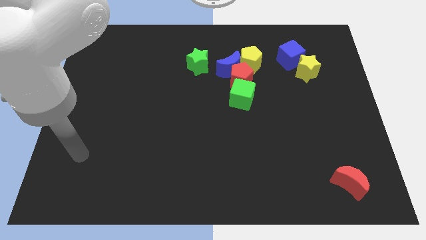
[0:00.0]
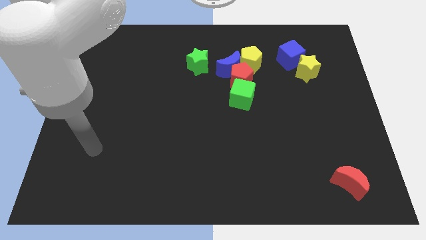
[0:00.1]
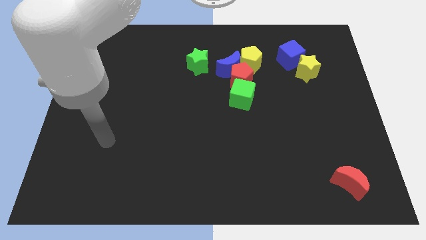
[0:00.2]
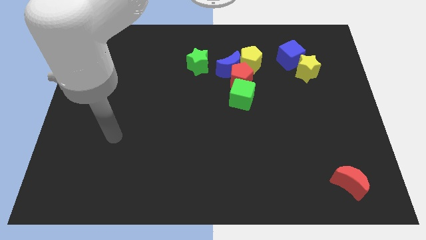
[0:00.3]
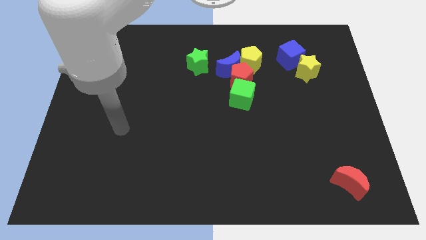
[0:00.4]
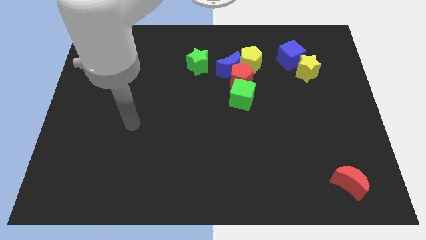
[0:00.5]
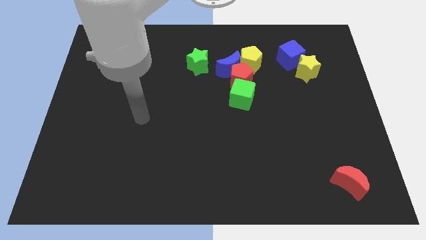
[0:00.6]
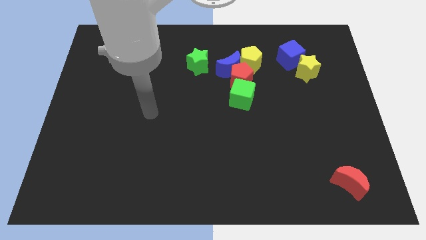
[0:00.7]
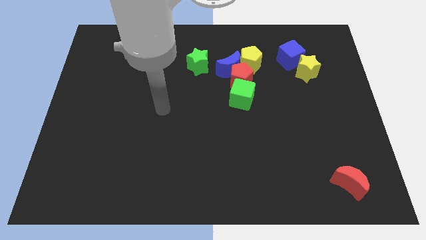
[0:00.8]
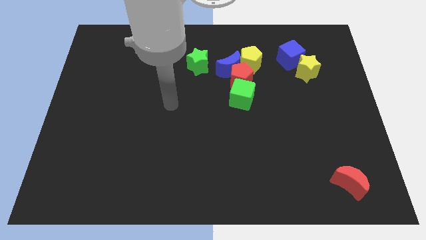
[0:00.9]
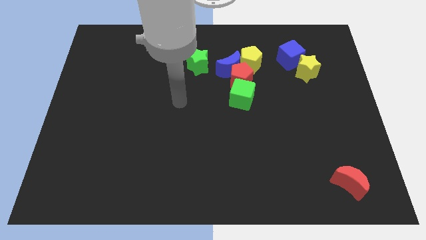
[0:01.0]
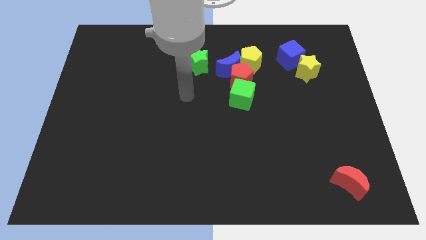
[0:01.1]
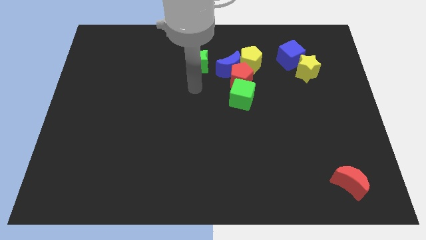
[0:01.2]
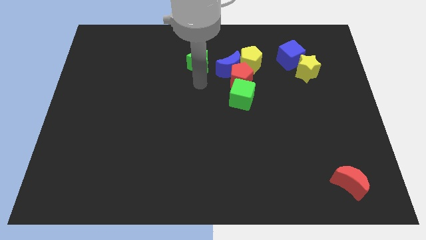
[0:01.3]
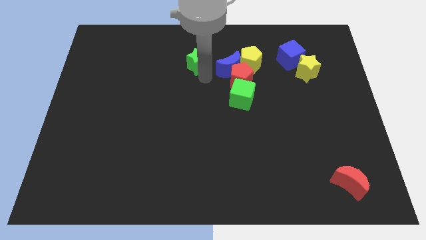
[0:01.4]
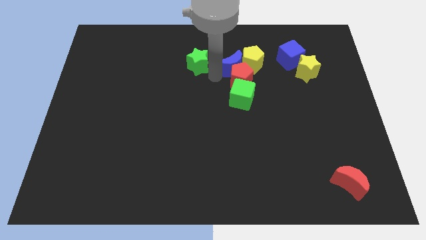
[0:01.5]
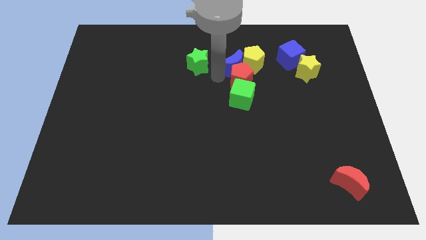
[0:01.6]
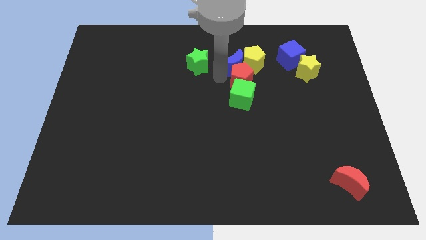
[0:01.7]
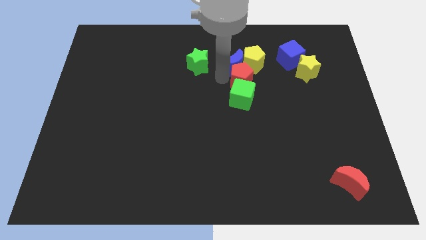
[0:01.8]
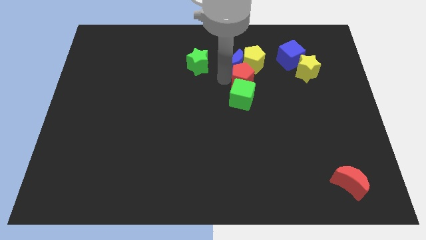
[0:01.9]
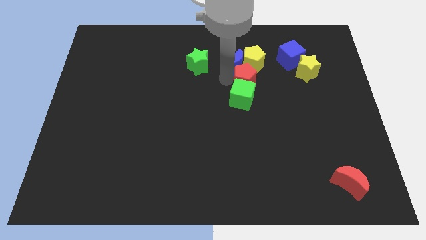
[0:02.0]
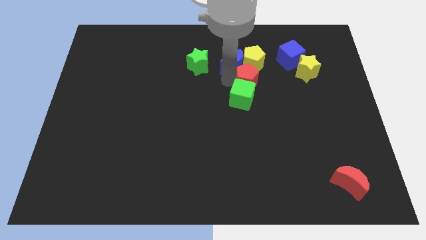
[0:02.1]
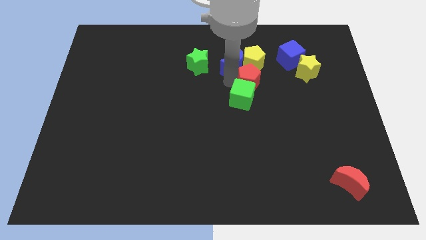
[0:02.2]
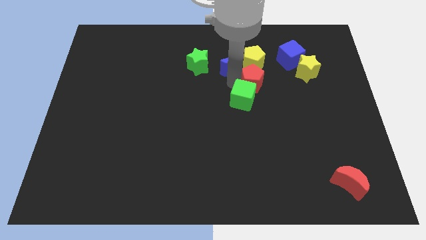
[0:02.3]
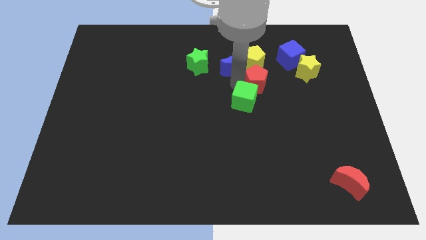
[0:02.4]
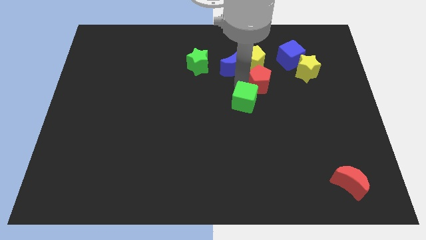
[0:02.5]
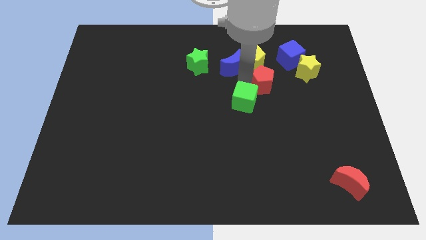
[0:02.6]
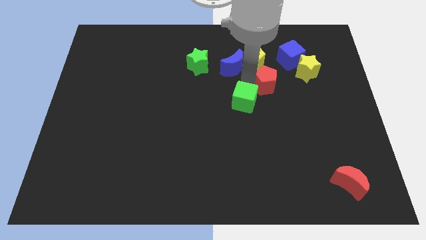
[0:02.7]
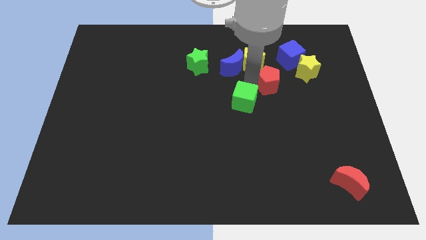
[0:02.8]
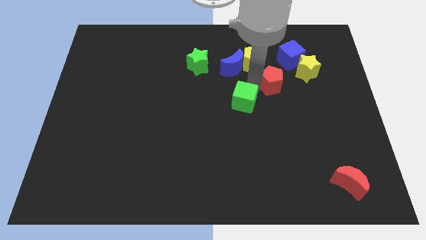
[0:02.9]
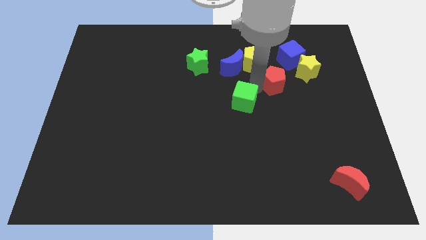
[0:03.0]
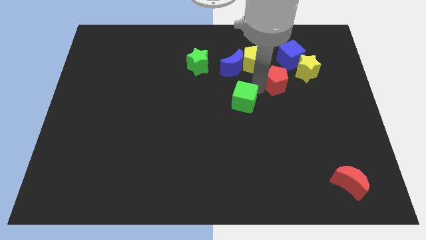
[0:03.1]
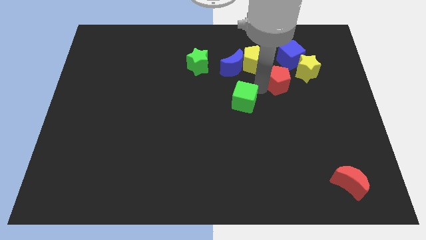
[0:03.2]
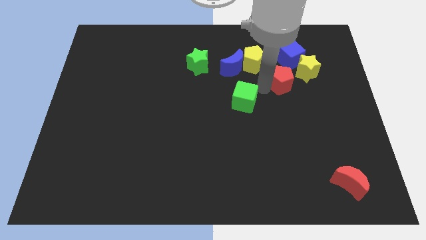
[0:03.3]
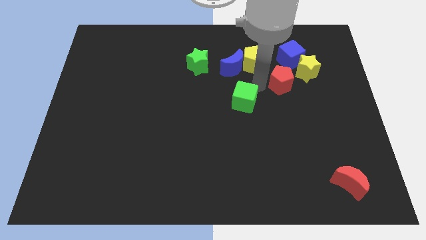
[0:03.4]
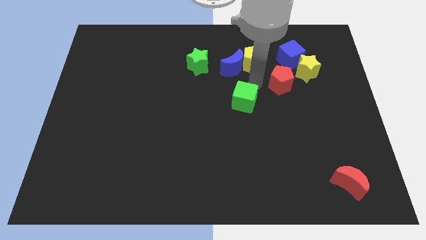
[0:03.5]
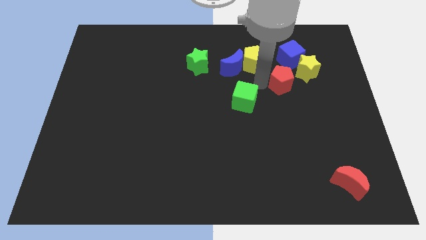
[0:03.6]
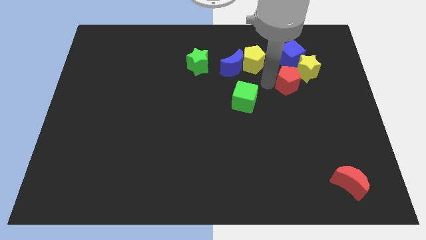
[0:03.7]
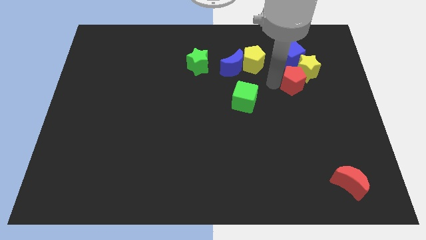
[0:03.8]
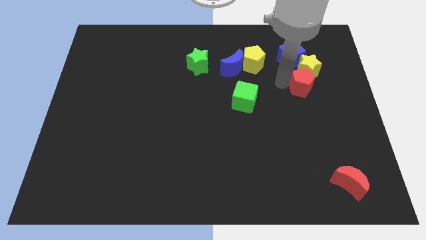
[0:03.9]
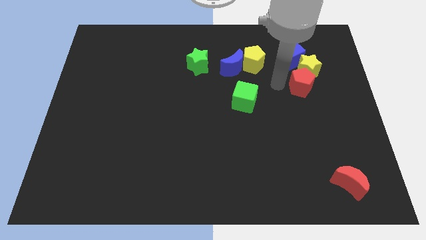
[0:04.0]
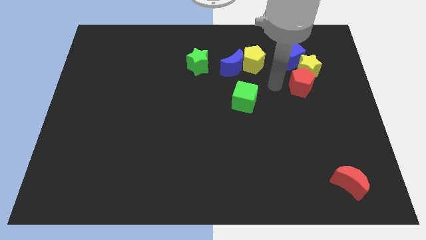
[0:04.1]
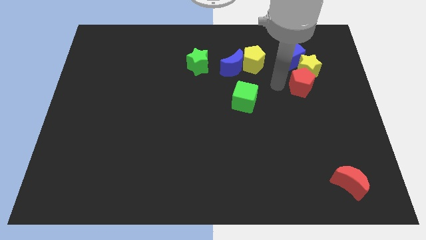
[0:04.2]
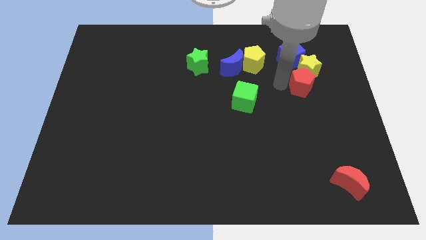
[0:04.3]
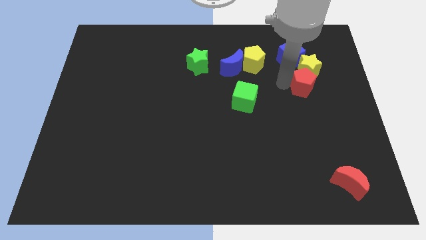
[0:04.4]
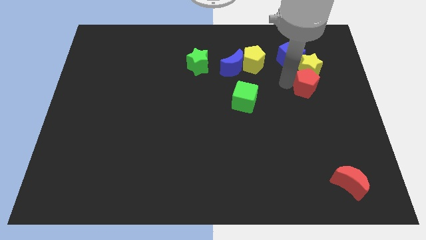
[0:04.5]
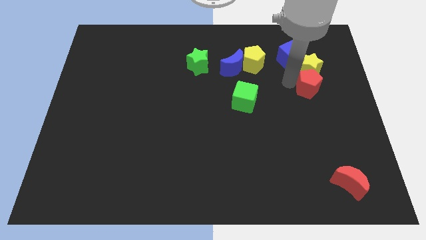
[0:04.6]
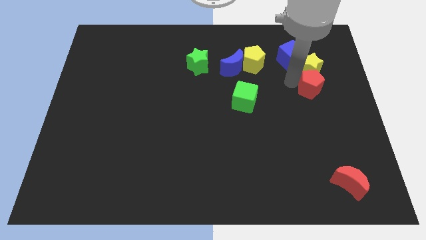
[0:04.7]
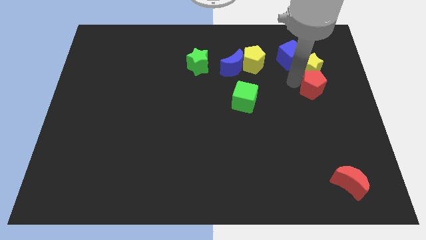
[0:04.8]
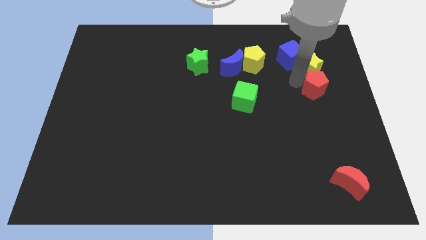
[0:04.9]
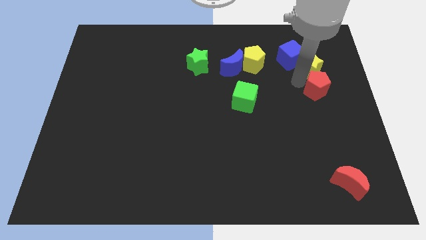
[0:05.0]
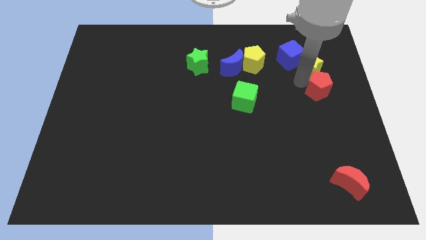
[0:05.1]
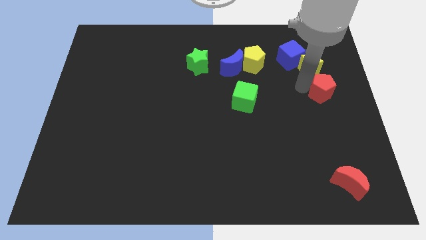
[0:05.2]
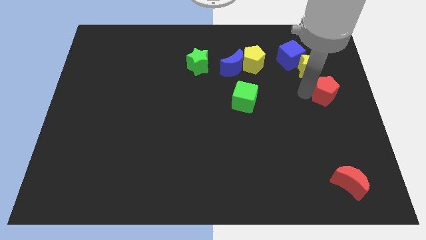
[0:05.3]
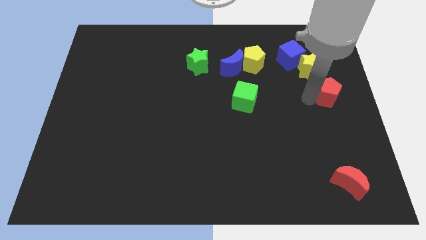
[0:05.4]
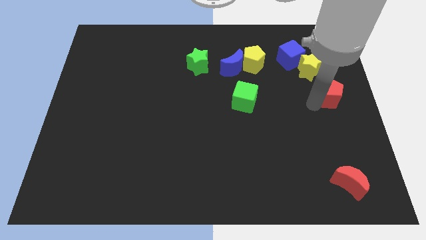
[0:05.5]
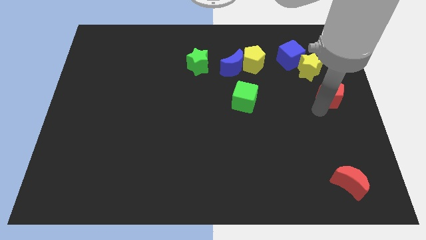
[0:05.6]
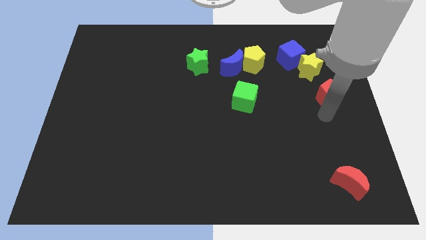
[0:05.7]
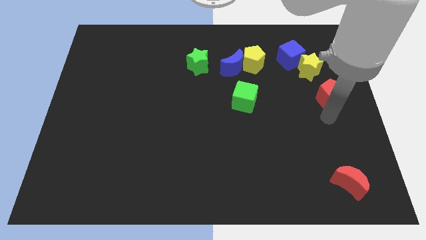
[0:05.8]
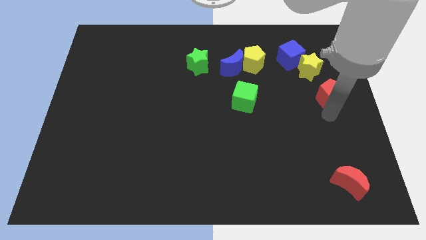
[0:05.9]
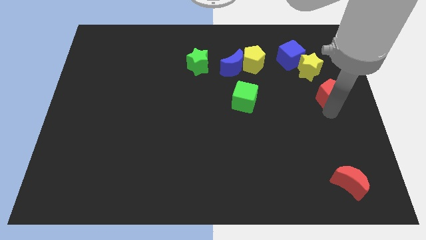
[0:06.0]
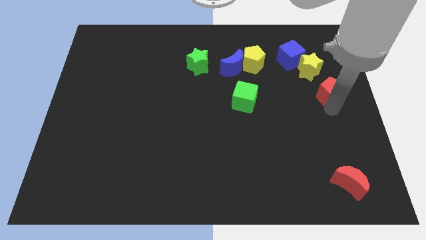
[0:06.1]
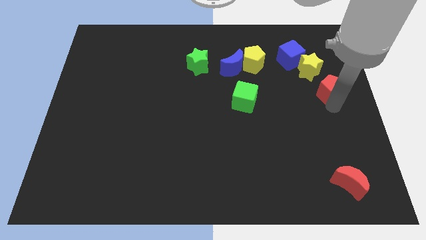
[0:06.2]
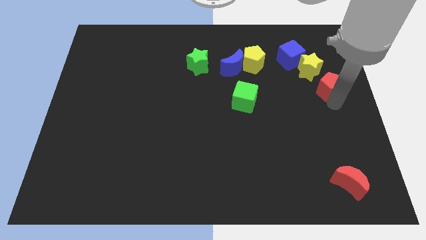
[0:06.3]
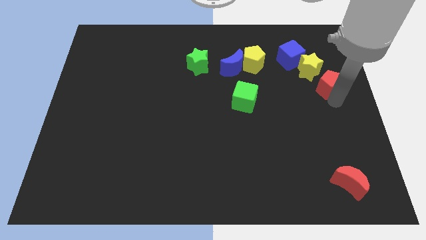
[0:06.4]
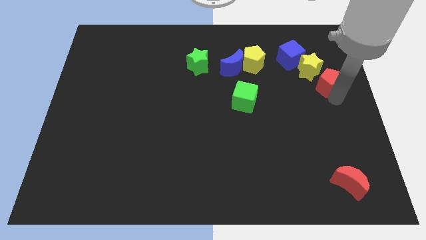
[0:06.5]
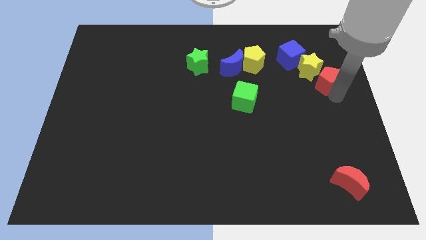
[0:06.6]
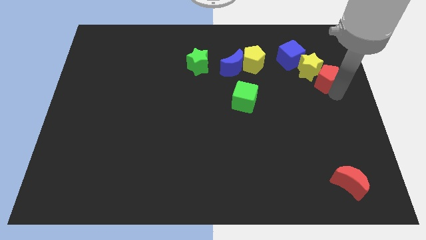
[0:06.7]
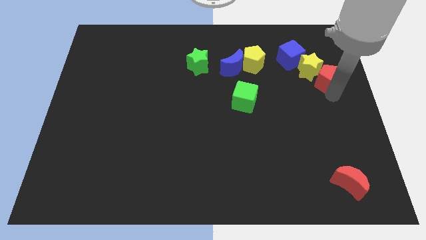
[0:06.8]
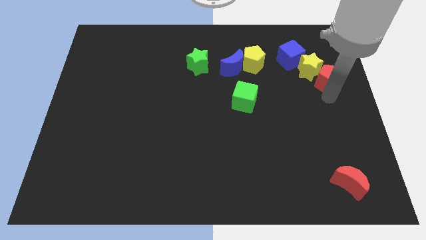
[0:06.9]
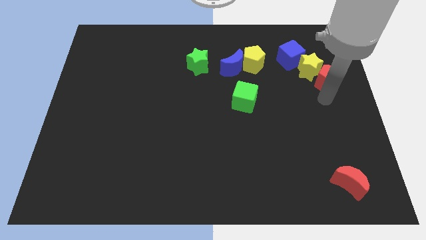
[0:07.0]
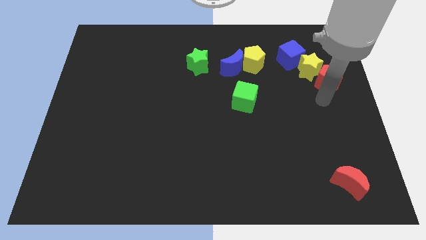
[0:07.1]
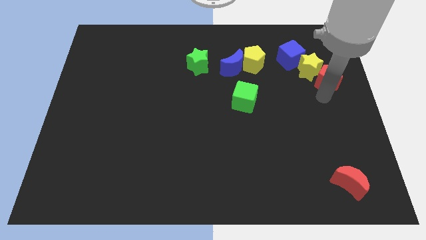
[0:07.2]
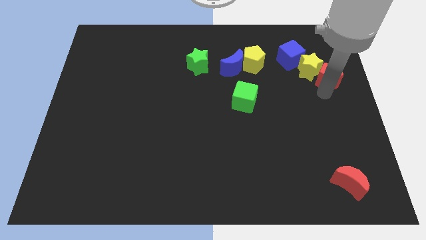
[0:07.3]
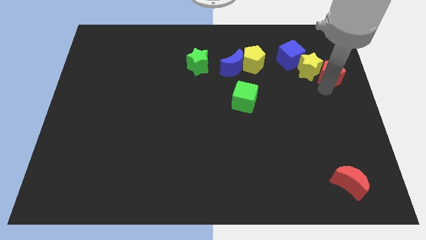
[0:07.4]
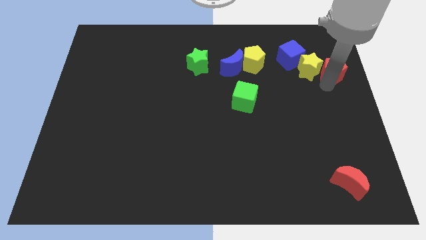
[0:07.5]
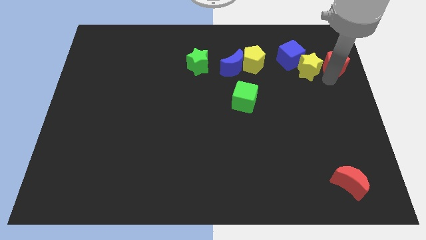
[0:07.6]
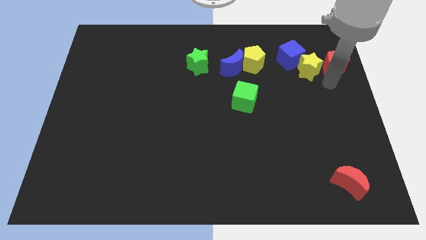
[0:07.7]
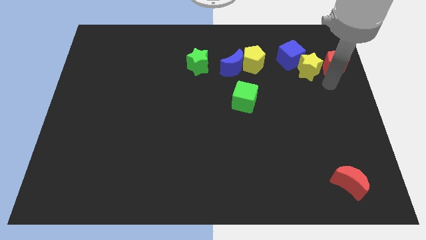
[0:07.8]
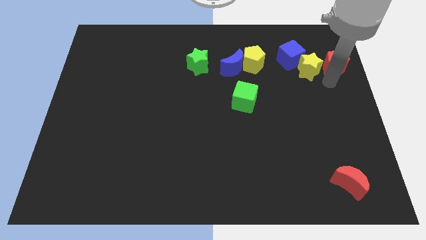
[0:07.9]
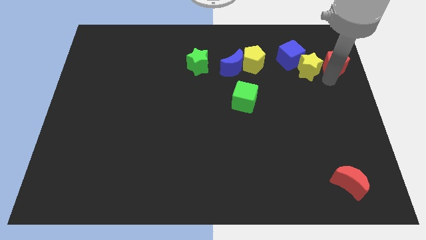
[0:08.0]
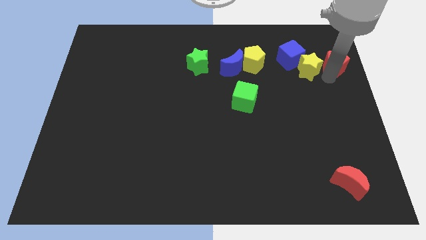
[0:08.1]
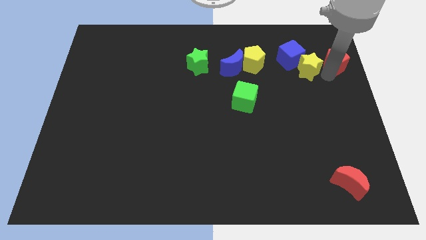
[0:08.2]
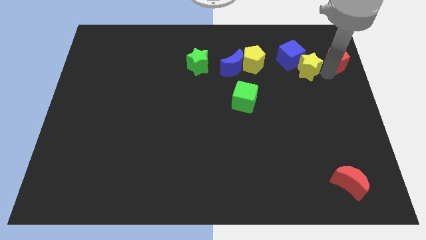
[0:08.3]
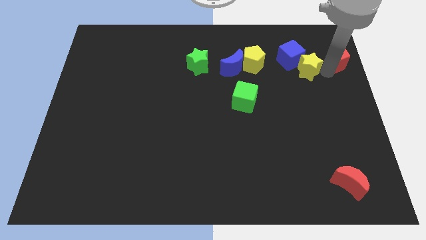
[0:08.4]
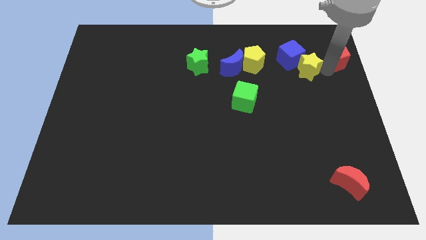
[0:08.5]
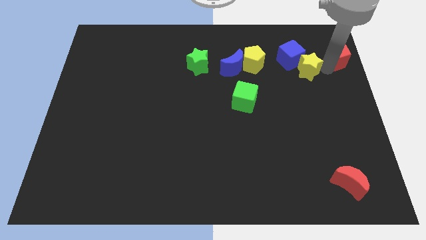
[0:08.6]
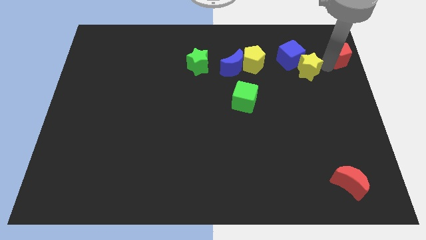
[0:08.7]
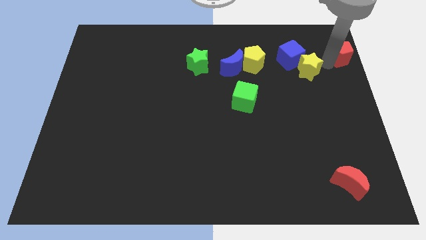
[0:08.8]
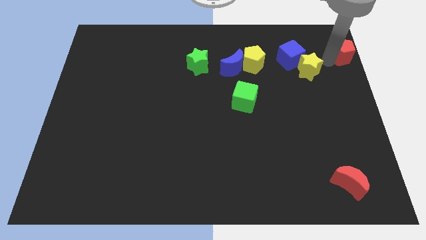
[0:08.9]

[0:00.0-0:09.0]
slide the red pentagon to the upper right corner
